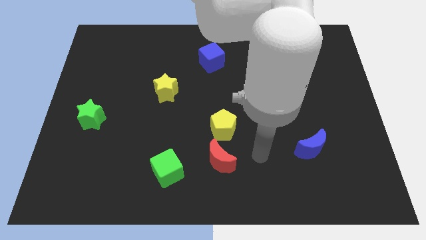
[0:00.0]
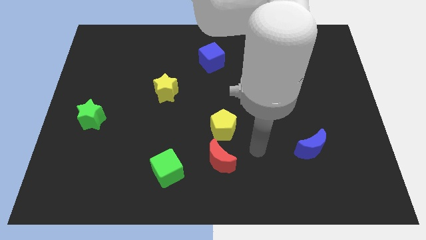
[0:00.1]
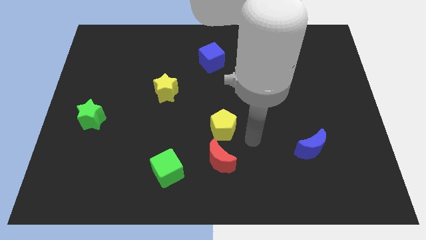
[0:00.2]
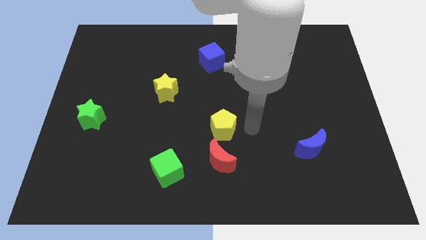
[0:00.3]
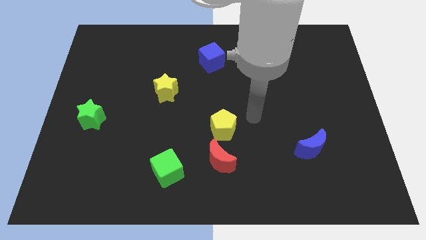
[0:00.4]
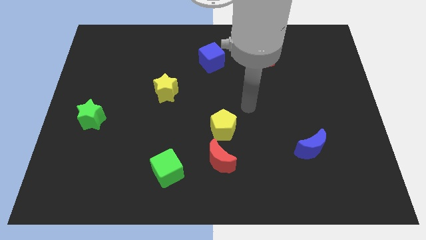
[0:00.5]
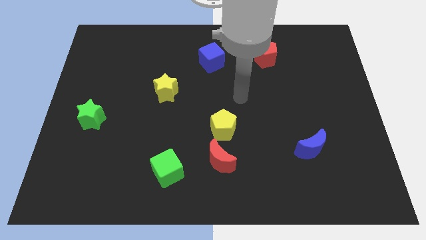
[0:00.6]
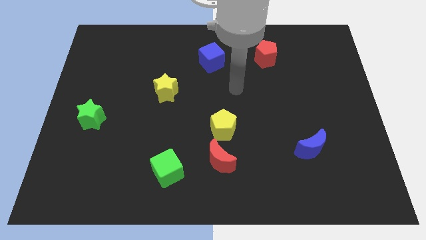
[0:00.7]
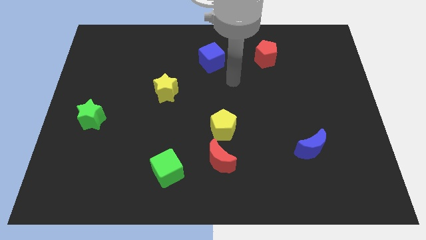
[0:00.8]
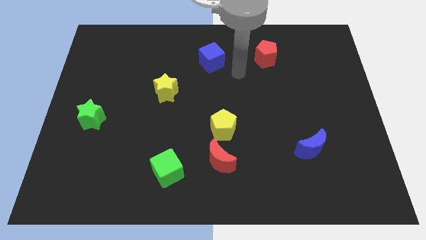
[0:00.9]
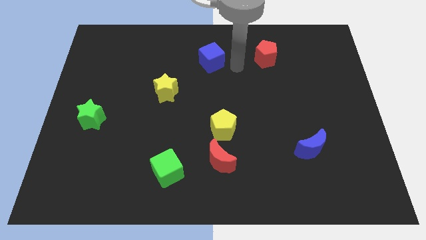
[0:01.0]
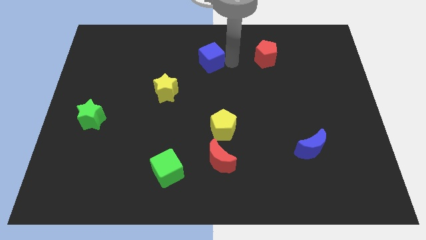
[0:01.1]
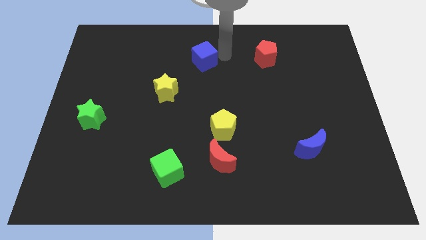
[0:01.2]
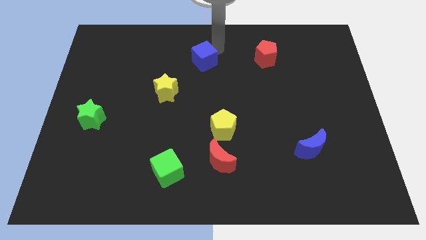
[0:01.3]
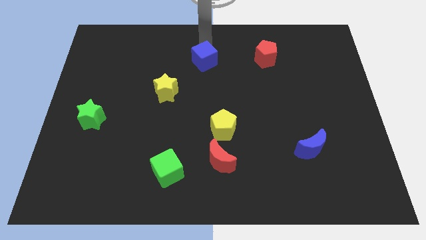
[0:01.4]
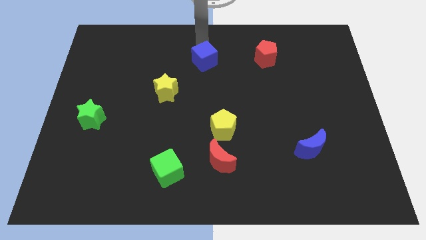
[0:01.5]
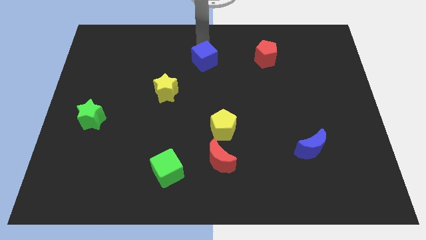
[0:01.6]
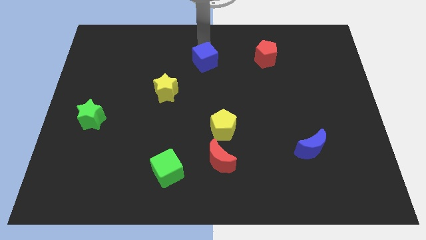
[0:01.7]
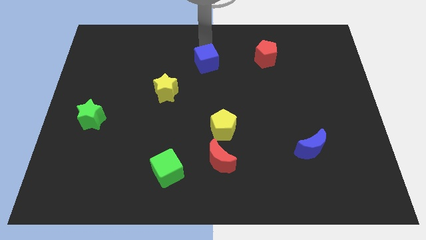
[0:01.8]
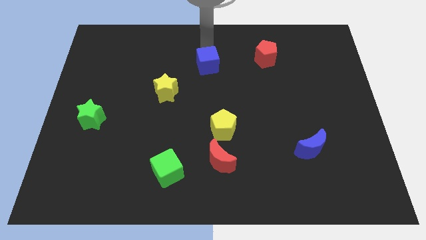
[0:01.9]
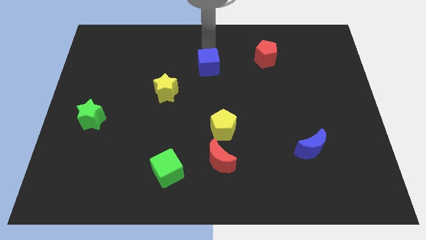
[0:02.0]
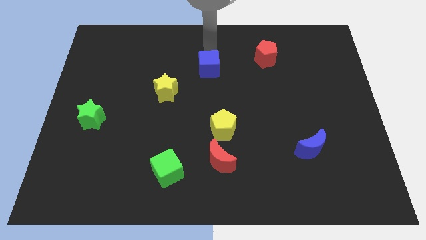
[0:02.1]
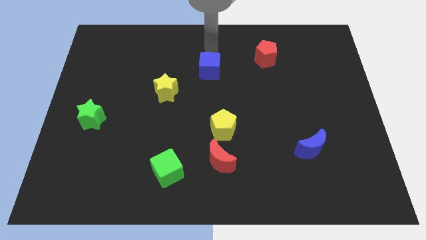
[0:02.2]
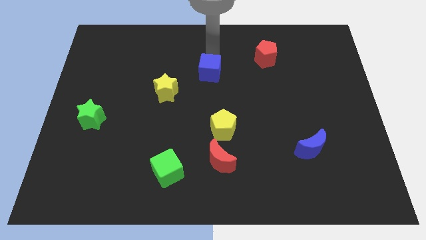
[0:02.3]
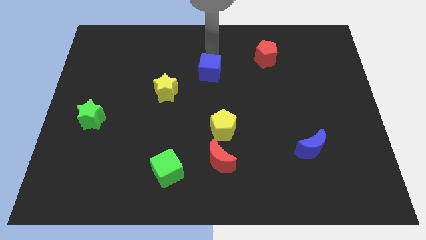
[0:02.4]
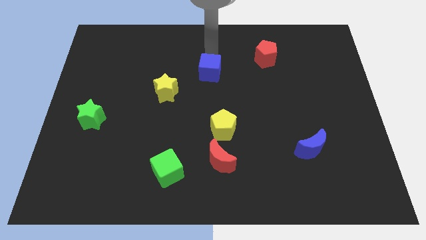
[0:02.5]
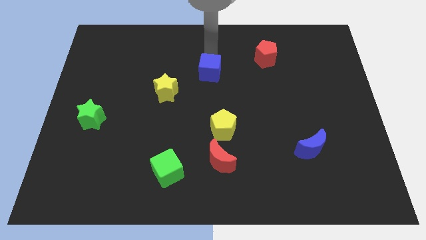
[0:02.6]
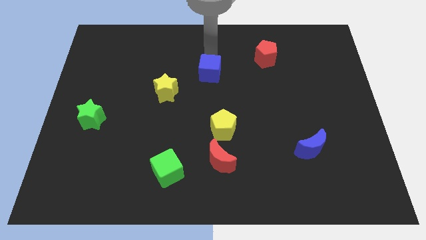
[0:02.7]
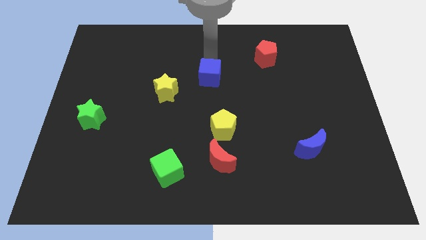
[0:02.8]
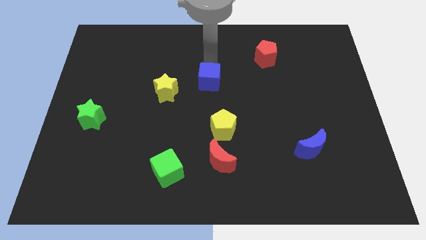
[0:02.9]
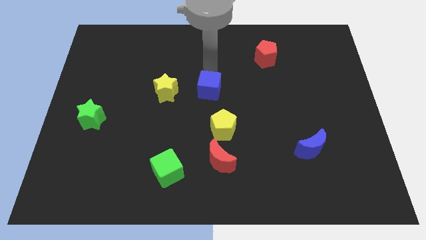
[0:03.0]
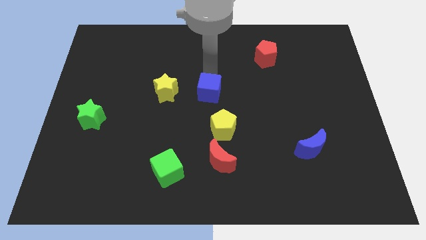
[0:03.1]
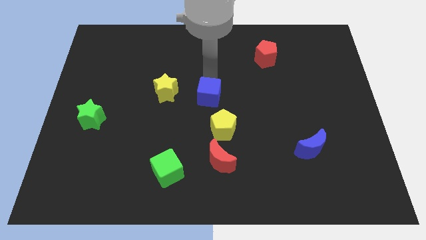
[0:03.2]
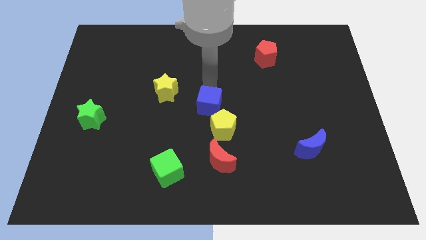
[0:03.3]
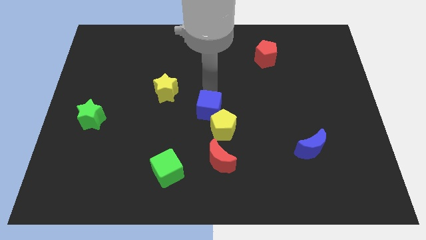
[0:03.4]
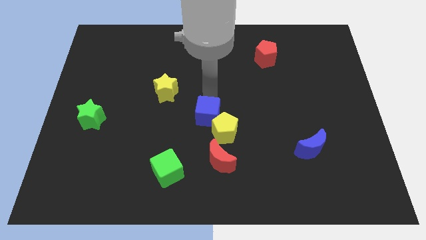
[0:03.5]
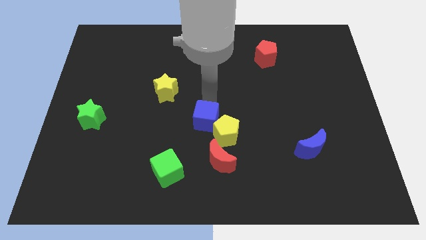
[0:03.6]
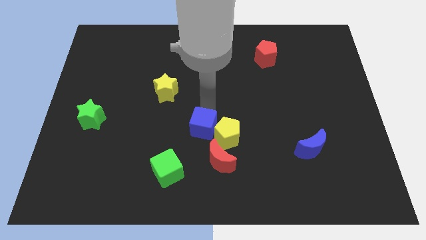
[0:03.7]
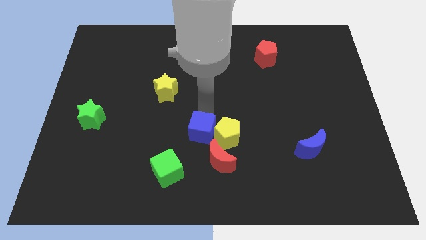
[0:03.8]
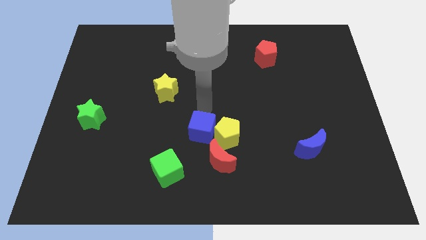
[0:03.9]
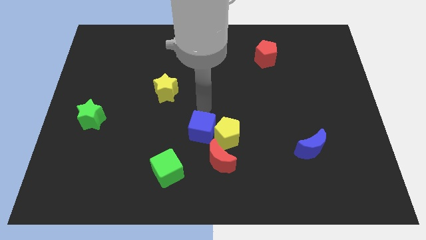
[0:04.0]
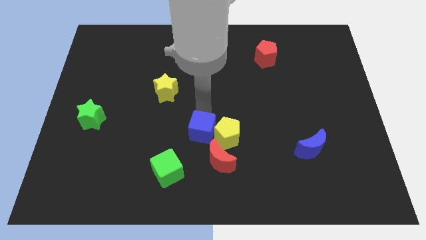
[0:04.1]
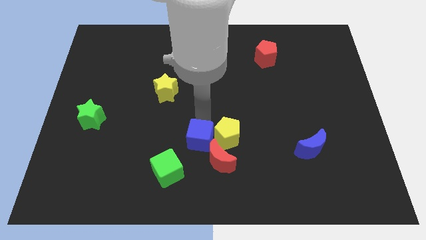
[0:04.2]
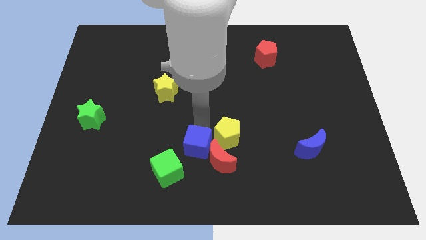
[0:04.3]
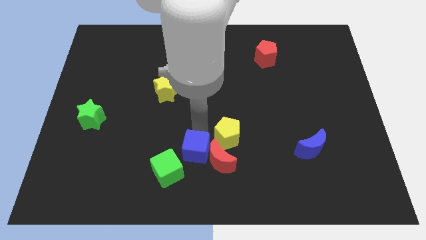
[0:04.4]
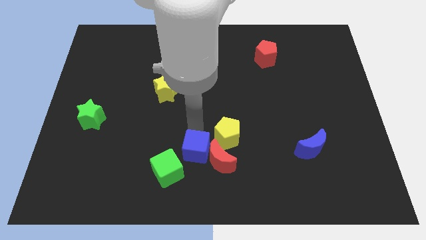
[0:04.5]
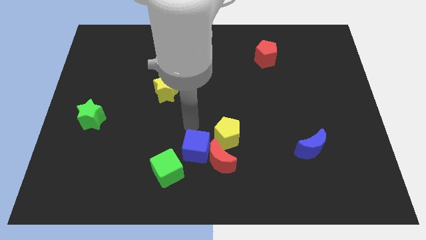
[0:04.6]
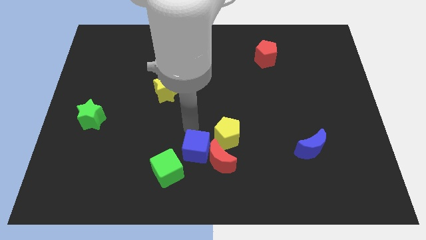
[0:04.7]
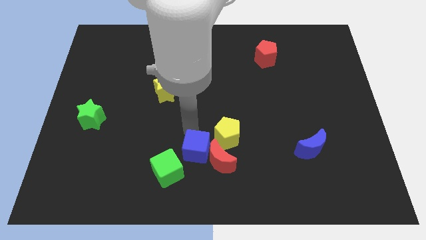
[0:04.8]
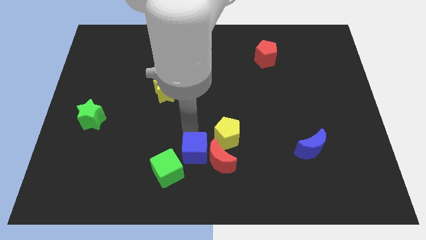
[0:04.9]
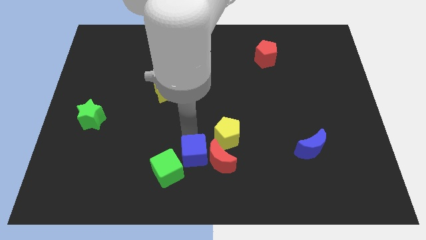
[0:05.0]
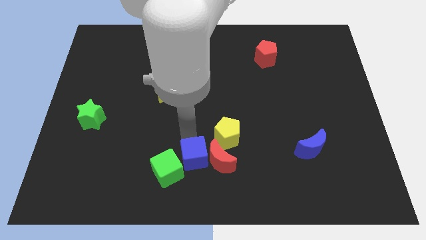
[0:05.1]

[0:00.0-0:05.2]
move the blue cube to the bottom

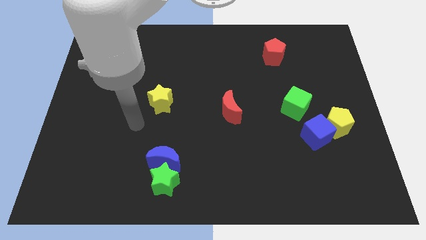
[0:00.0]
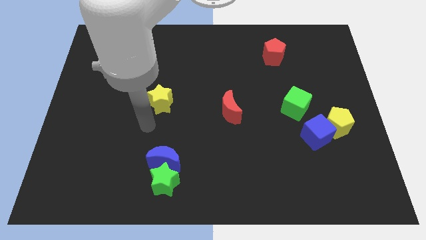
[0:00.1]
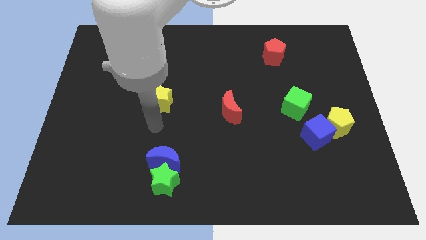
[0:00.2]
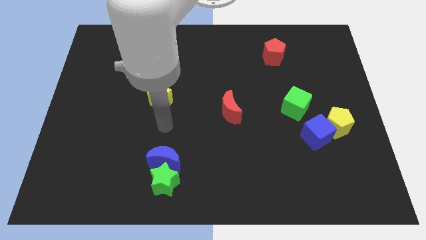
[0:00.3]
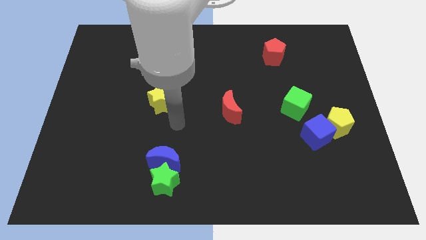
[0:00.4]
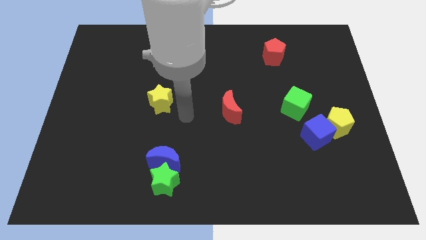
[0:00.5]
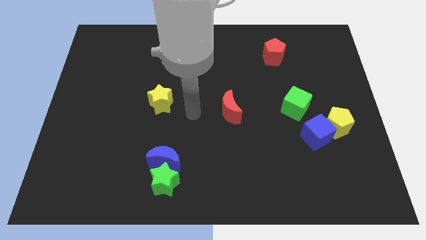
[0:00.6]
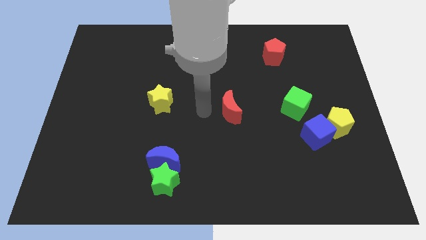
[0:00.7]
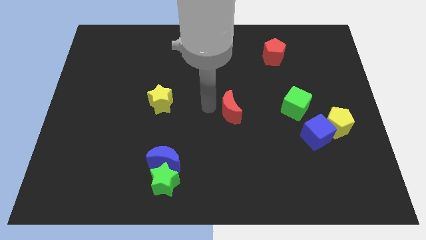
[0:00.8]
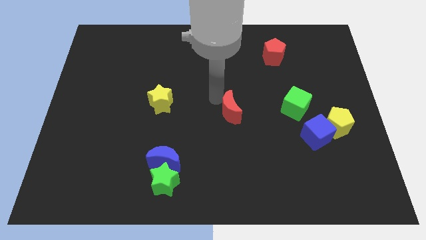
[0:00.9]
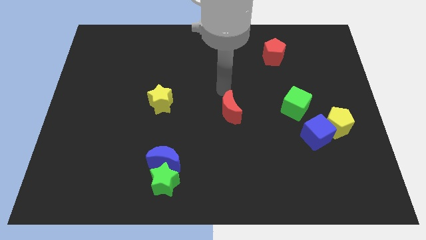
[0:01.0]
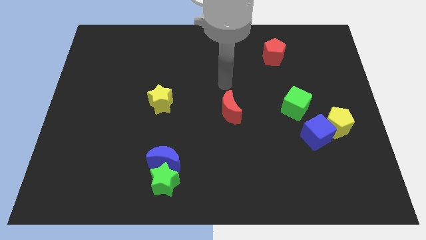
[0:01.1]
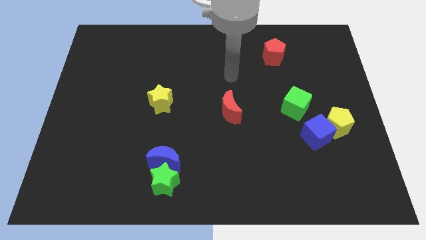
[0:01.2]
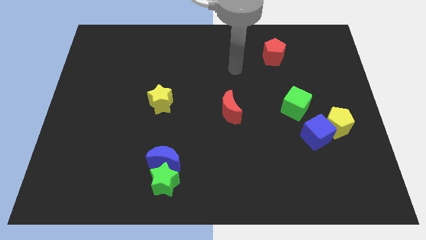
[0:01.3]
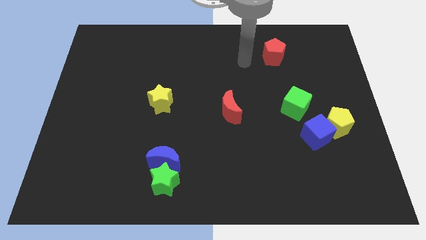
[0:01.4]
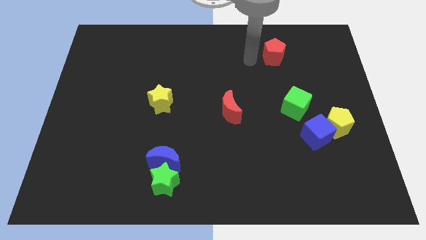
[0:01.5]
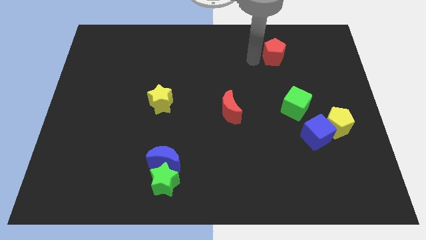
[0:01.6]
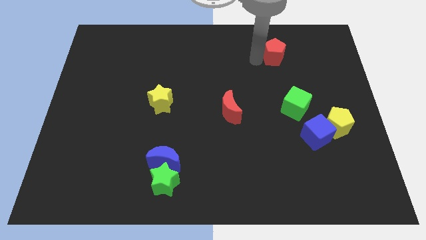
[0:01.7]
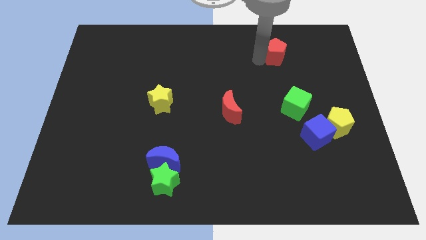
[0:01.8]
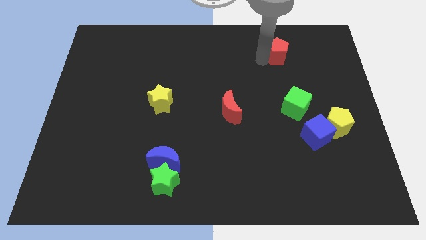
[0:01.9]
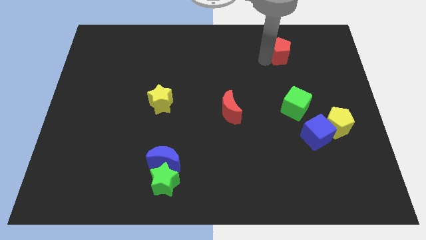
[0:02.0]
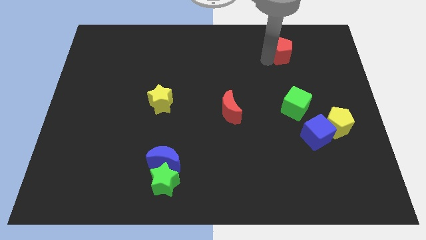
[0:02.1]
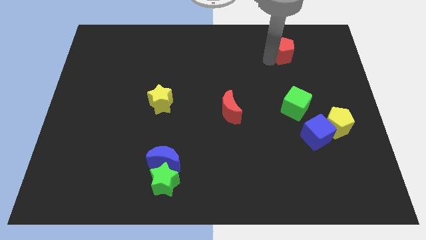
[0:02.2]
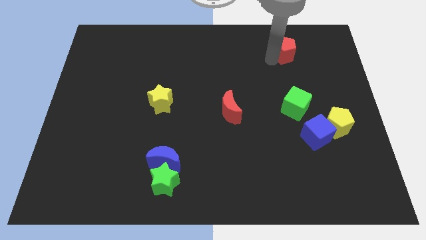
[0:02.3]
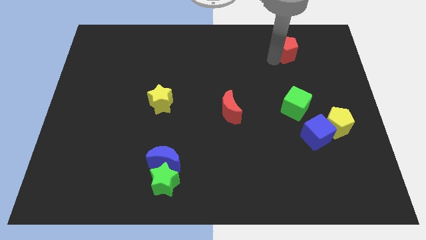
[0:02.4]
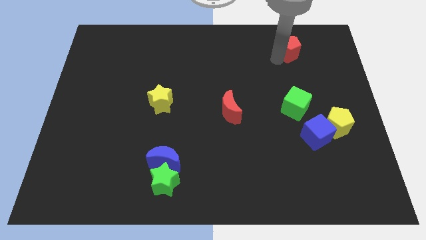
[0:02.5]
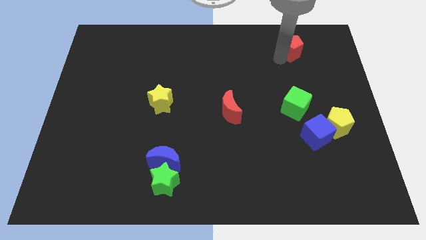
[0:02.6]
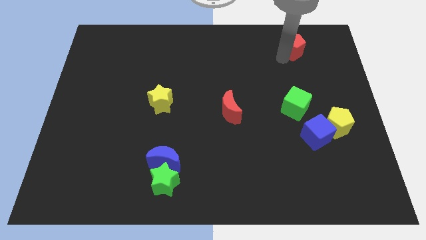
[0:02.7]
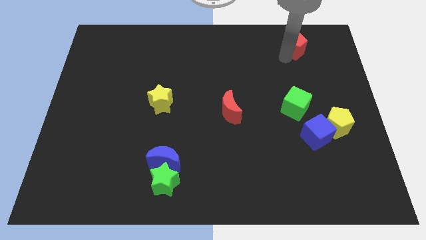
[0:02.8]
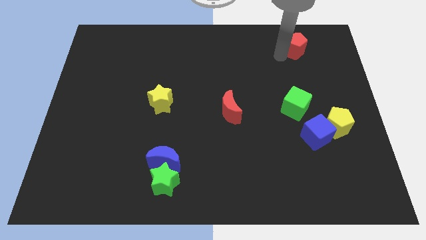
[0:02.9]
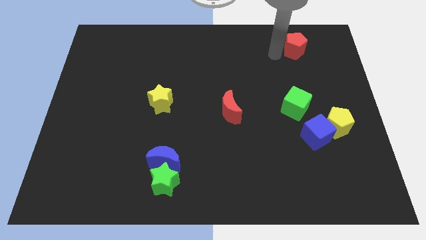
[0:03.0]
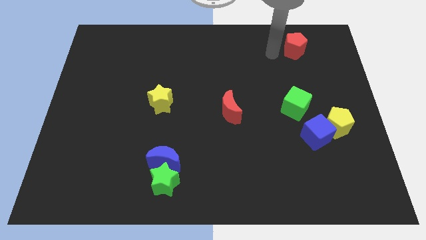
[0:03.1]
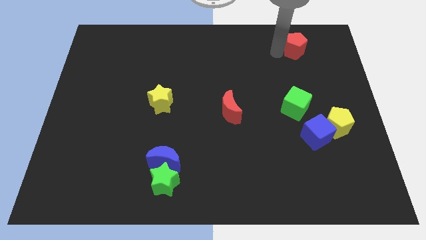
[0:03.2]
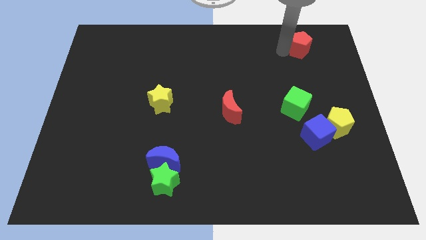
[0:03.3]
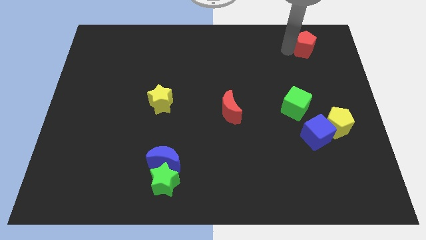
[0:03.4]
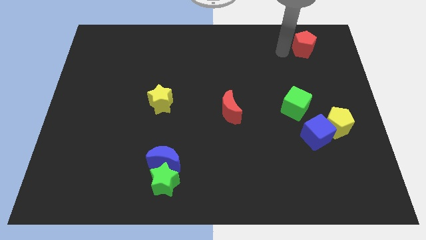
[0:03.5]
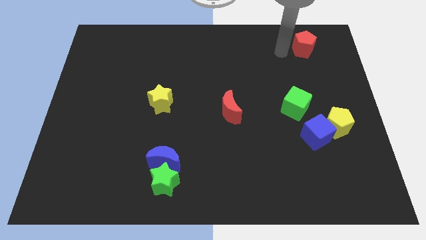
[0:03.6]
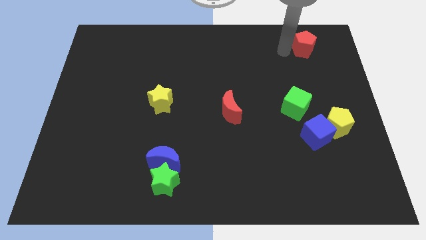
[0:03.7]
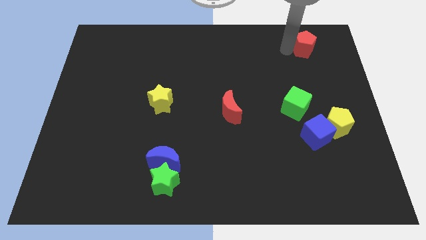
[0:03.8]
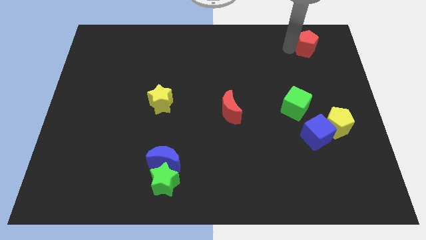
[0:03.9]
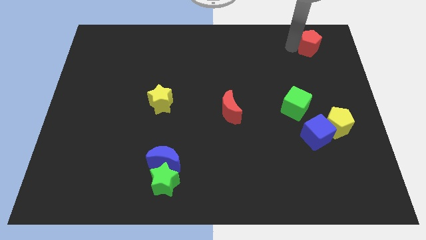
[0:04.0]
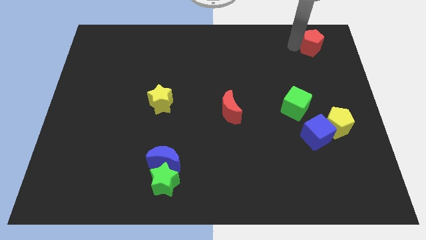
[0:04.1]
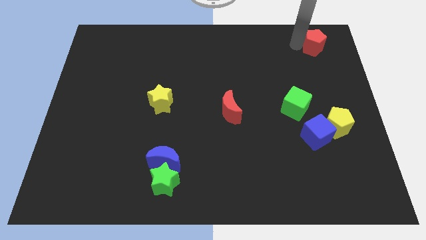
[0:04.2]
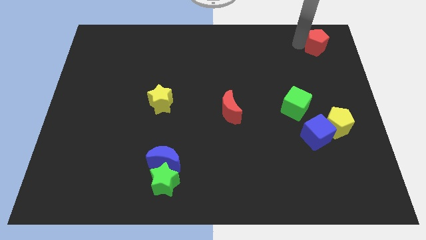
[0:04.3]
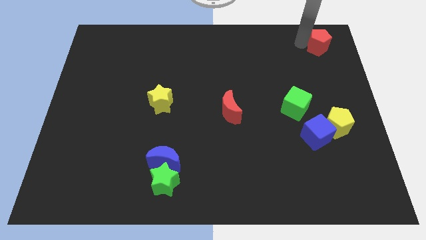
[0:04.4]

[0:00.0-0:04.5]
slide the red pentagon to the upper right corner
